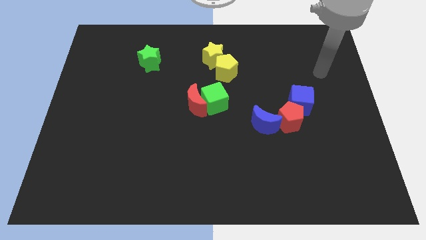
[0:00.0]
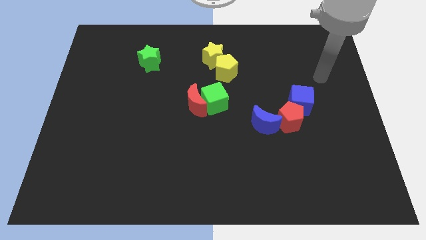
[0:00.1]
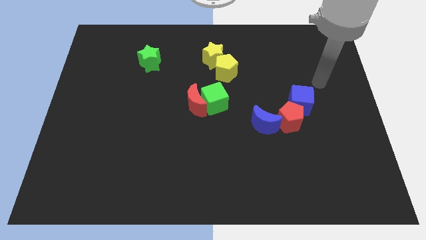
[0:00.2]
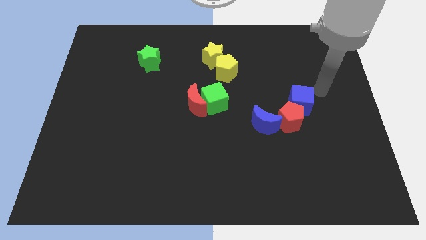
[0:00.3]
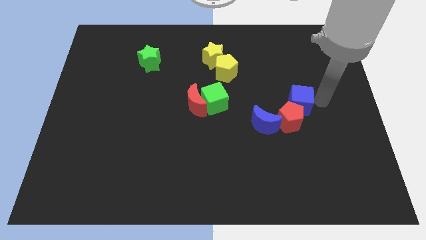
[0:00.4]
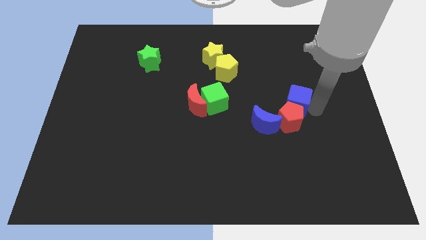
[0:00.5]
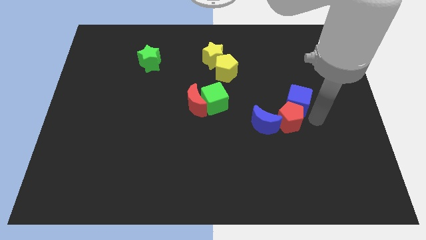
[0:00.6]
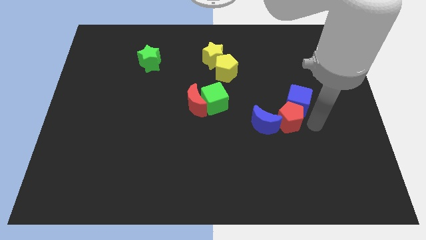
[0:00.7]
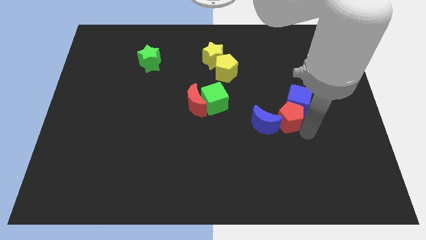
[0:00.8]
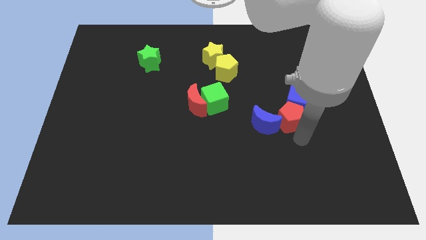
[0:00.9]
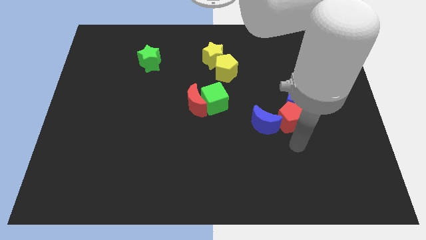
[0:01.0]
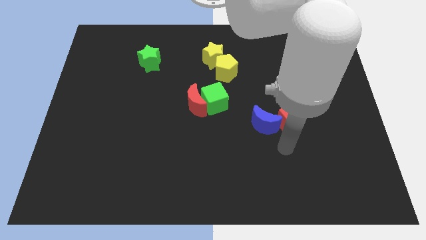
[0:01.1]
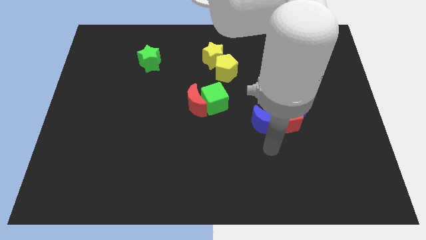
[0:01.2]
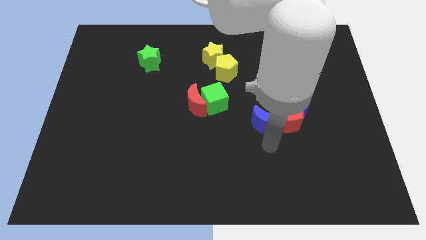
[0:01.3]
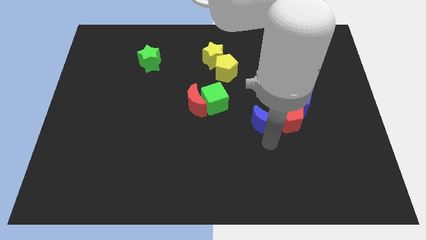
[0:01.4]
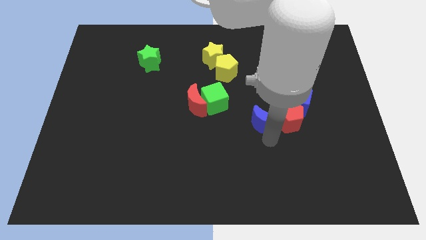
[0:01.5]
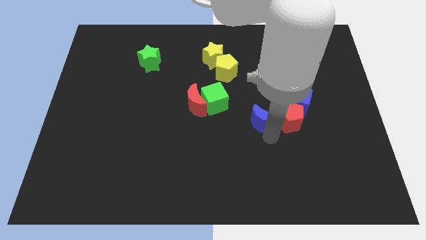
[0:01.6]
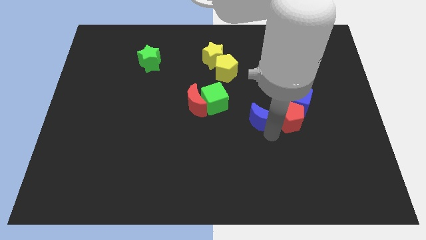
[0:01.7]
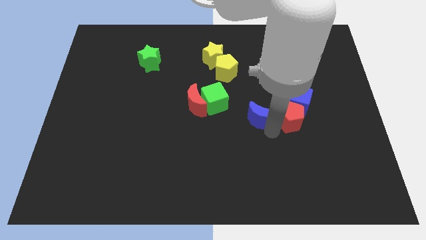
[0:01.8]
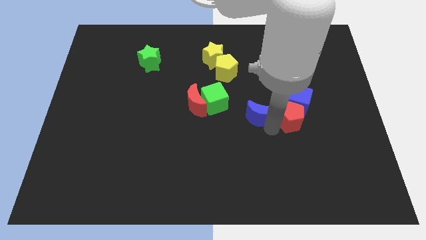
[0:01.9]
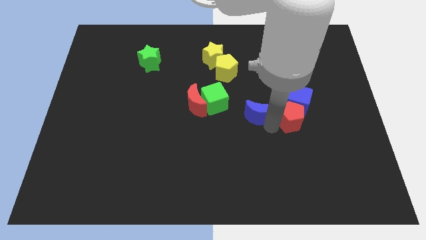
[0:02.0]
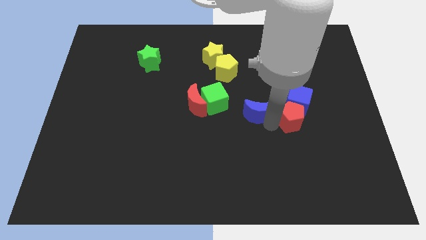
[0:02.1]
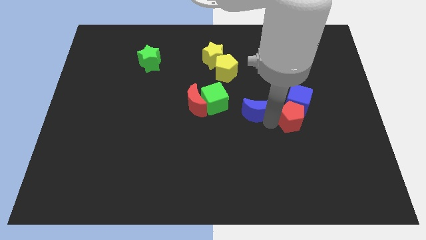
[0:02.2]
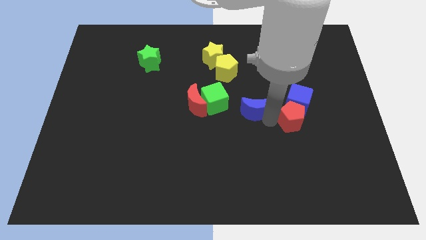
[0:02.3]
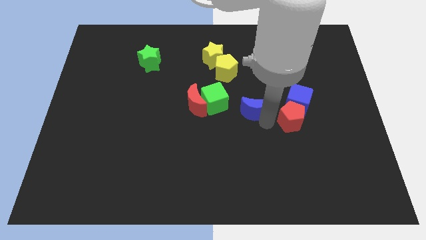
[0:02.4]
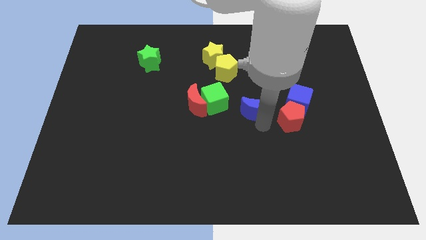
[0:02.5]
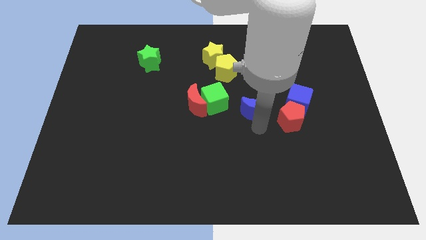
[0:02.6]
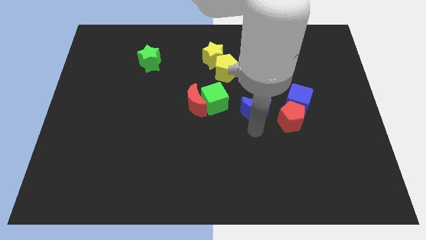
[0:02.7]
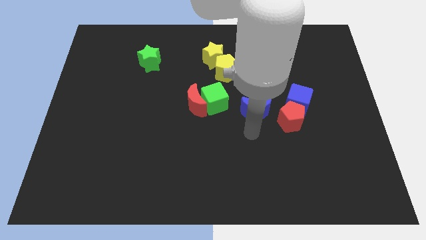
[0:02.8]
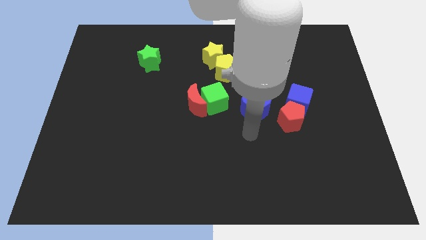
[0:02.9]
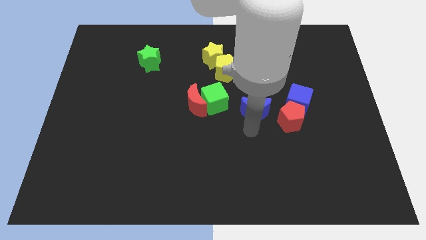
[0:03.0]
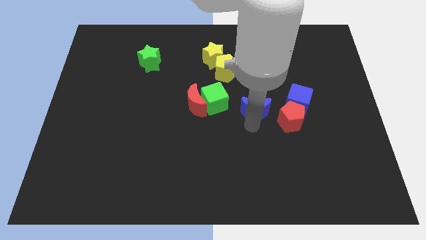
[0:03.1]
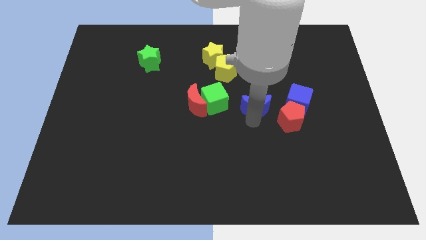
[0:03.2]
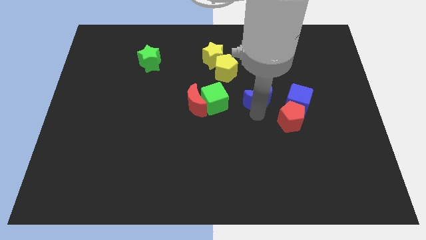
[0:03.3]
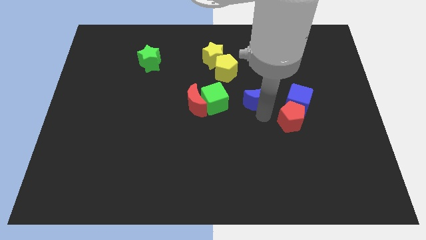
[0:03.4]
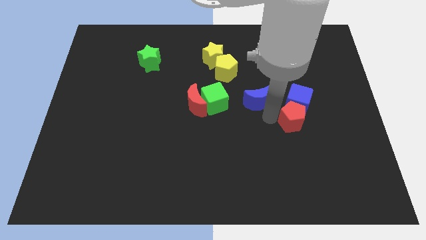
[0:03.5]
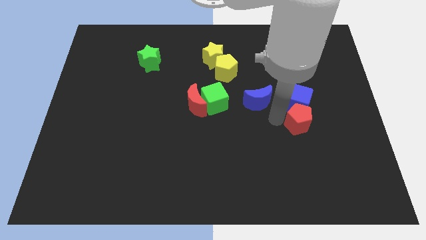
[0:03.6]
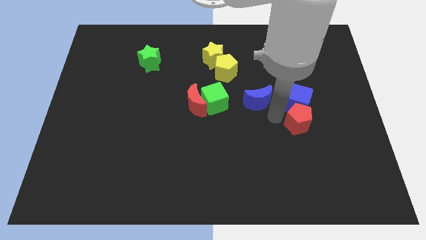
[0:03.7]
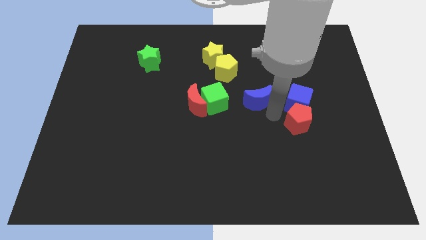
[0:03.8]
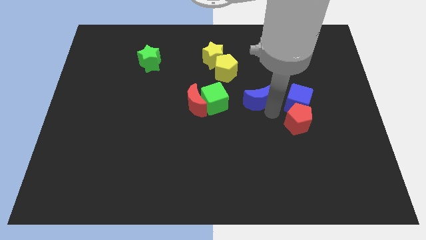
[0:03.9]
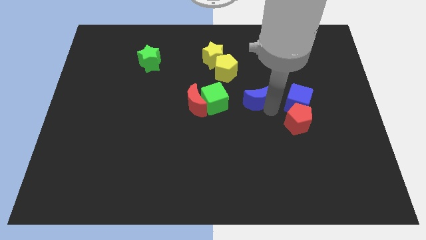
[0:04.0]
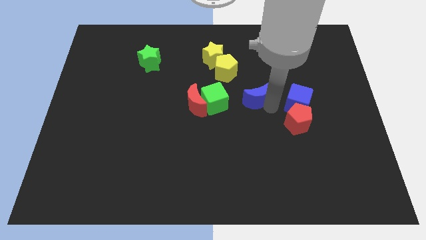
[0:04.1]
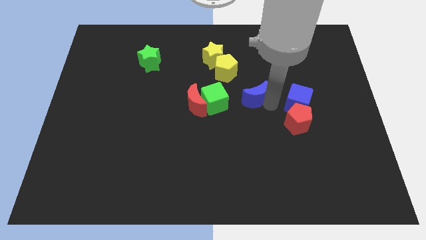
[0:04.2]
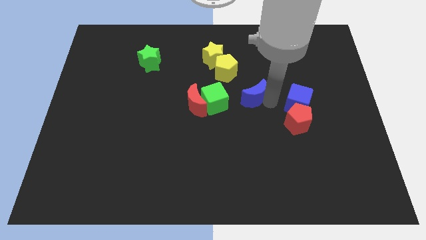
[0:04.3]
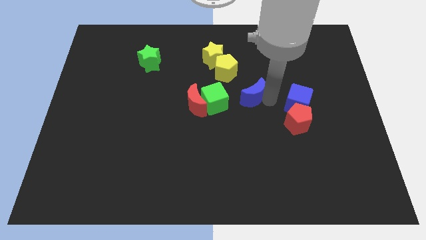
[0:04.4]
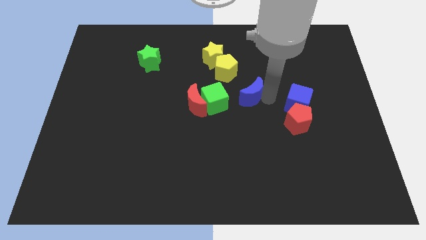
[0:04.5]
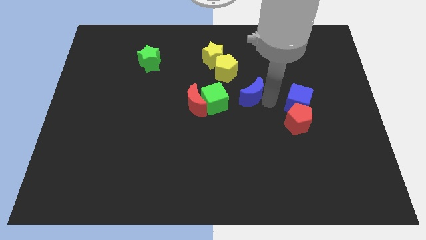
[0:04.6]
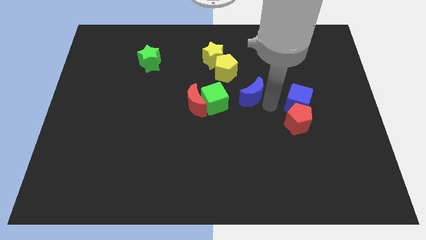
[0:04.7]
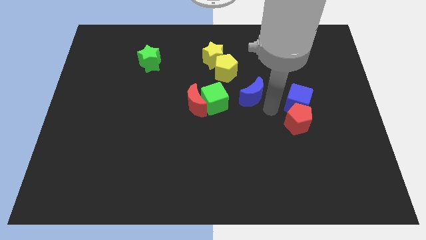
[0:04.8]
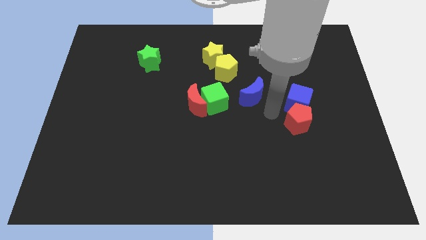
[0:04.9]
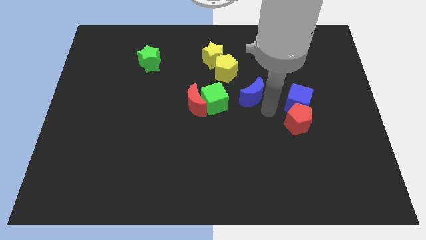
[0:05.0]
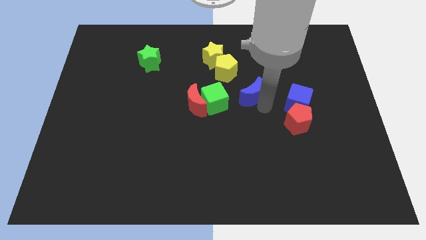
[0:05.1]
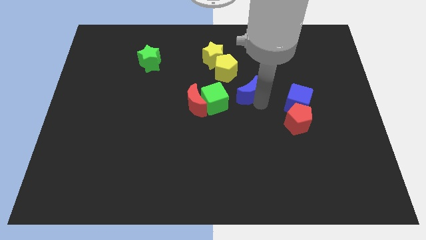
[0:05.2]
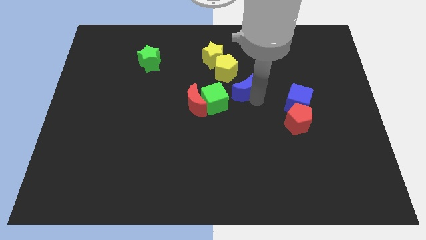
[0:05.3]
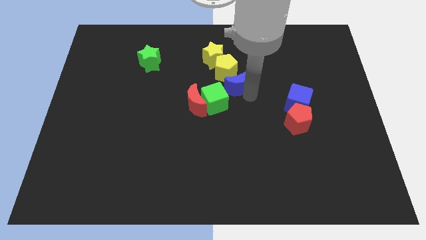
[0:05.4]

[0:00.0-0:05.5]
move the blue moon to the yellow pentagon

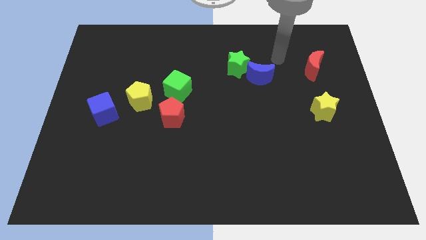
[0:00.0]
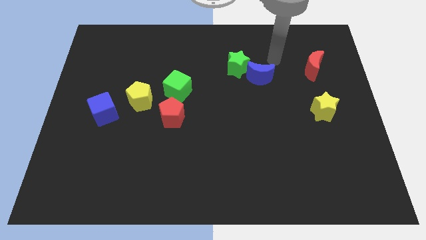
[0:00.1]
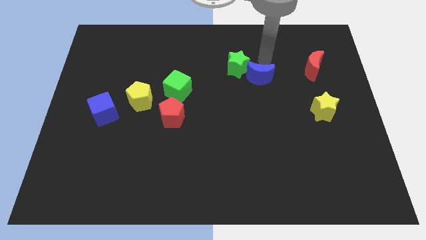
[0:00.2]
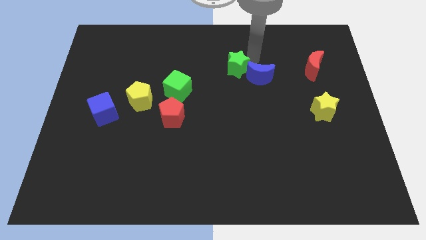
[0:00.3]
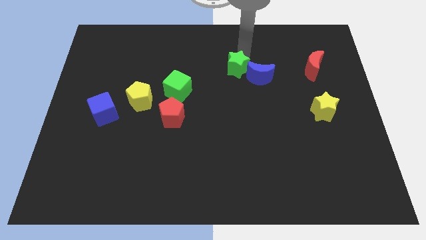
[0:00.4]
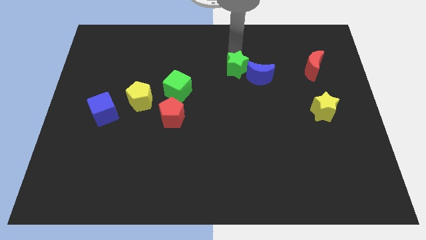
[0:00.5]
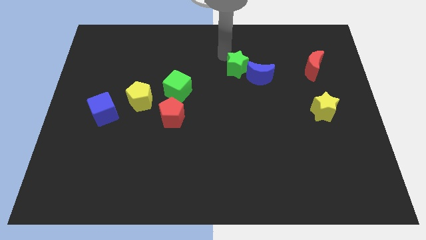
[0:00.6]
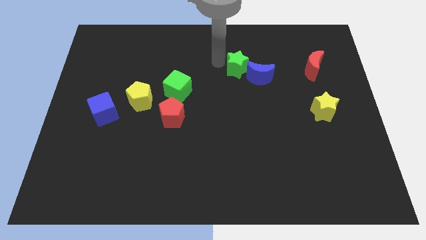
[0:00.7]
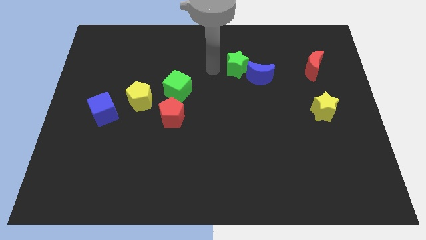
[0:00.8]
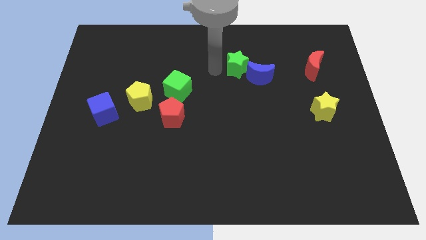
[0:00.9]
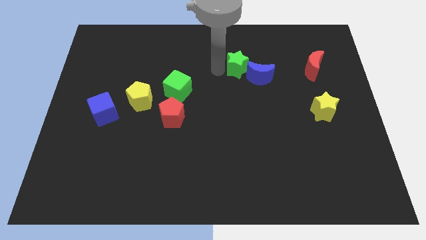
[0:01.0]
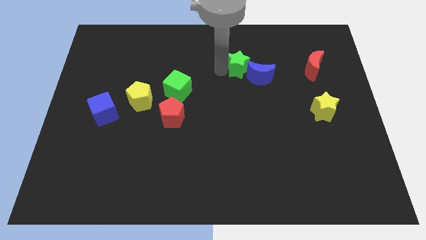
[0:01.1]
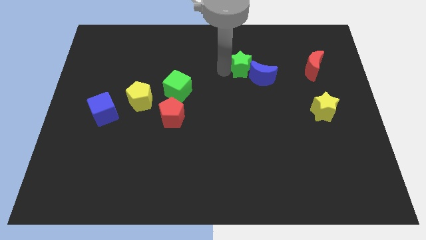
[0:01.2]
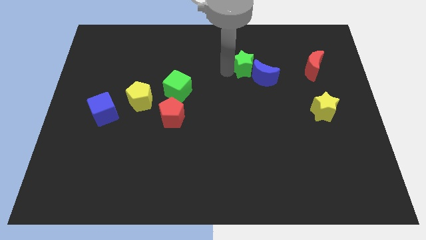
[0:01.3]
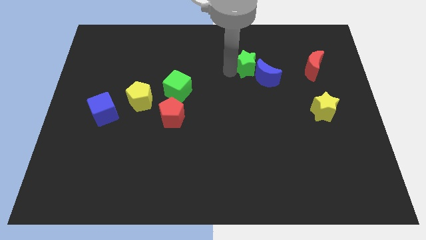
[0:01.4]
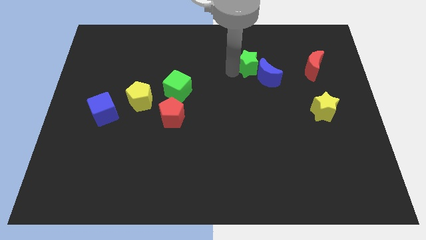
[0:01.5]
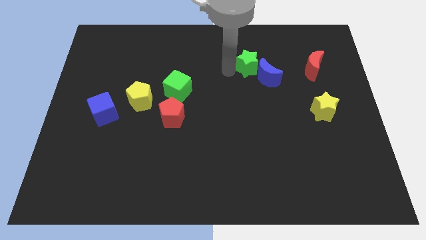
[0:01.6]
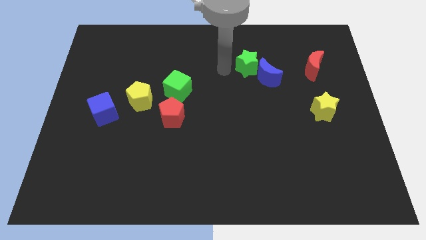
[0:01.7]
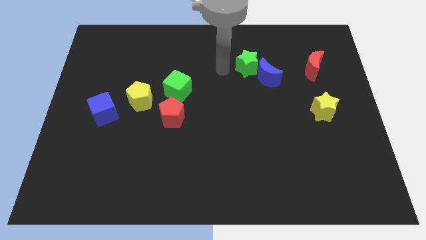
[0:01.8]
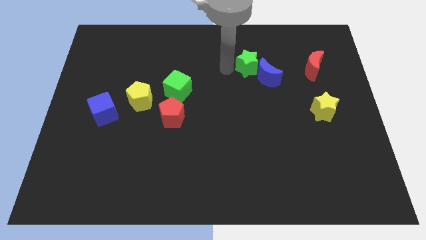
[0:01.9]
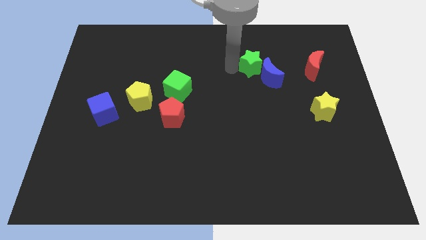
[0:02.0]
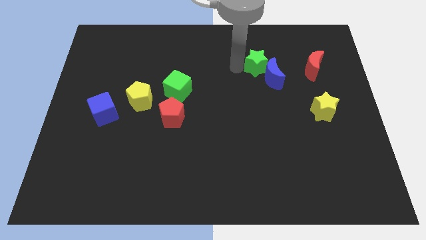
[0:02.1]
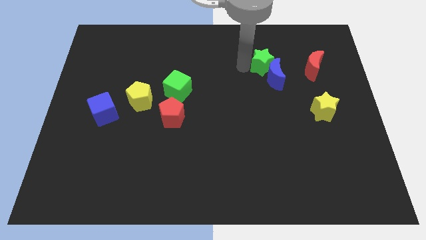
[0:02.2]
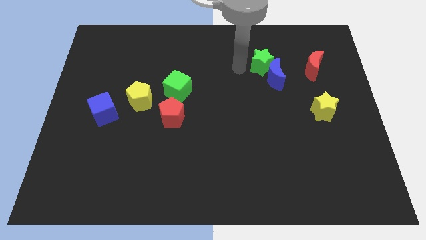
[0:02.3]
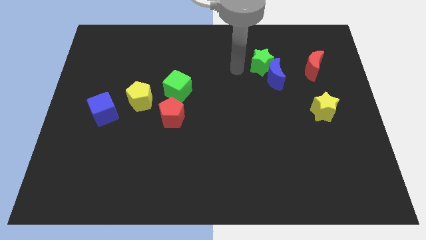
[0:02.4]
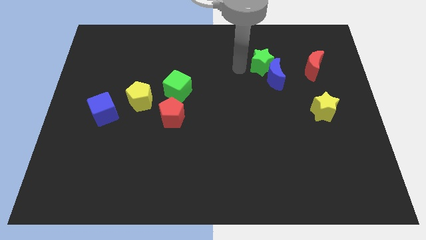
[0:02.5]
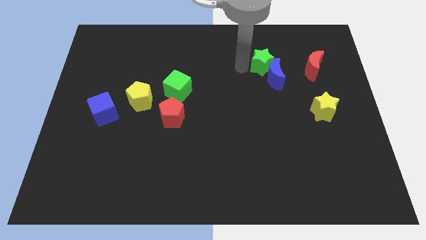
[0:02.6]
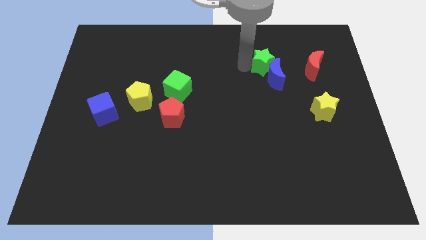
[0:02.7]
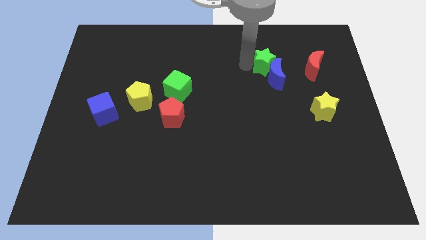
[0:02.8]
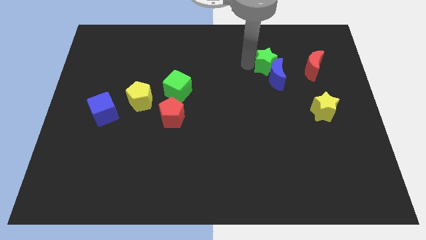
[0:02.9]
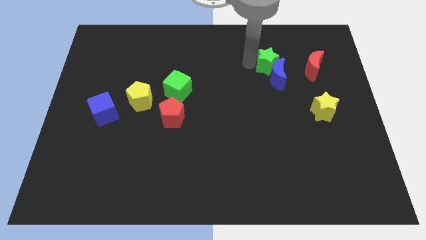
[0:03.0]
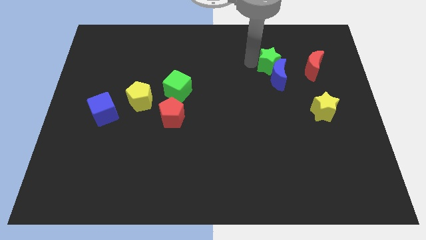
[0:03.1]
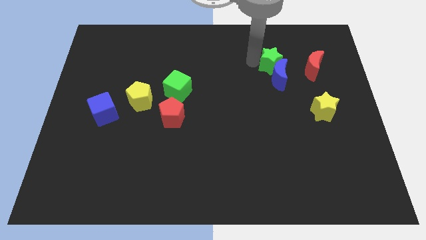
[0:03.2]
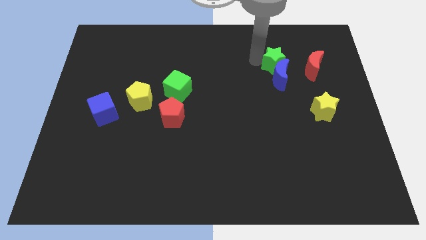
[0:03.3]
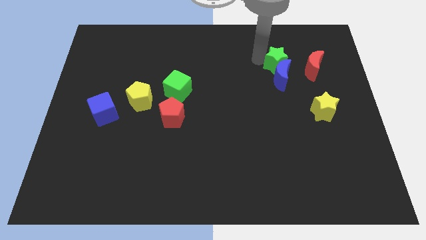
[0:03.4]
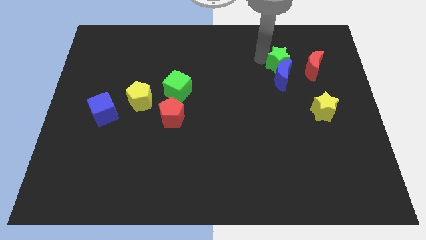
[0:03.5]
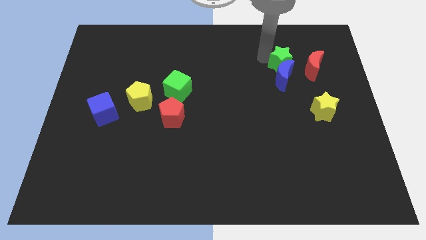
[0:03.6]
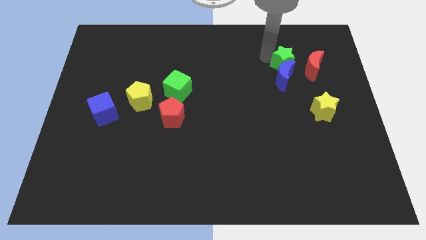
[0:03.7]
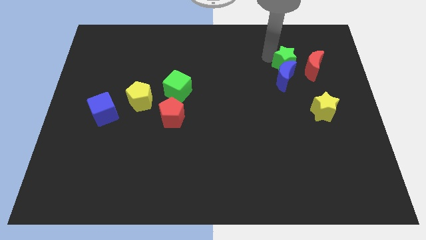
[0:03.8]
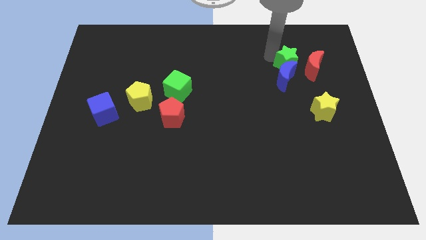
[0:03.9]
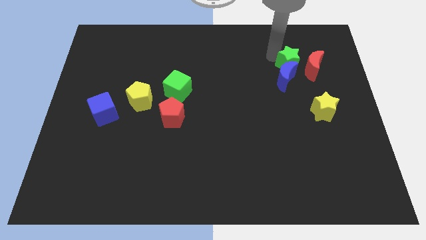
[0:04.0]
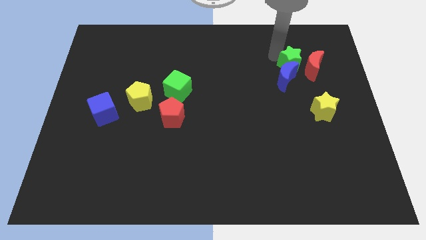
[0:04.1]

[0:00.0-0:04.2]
put the green star close to the red moon
